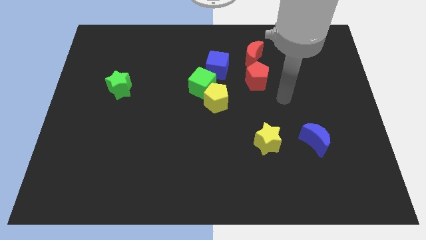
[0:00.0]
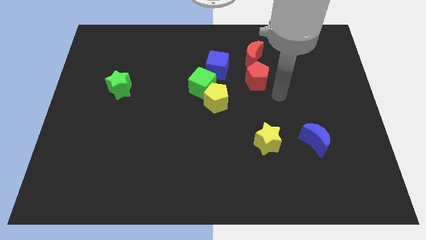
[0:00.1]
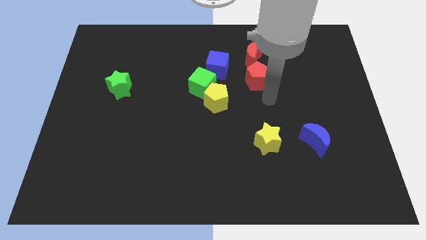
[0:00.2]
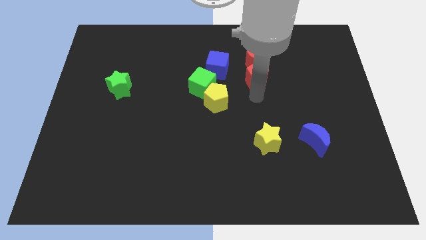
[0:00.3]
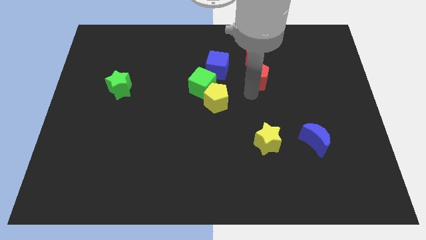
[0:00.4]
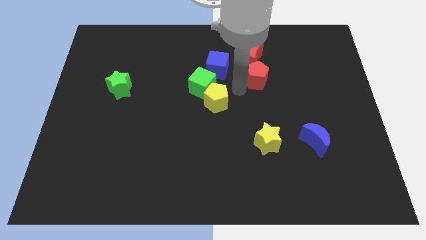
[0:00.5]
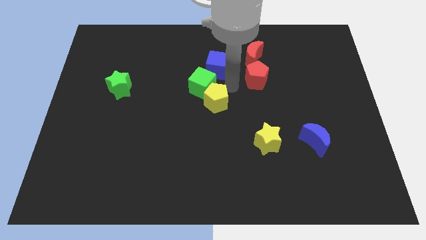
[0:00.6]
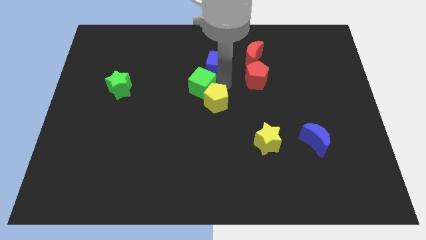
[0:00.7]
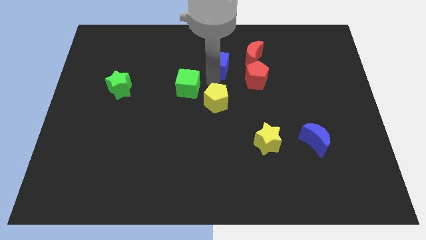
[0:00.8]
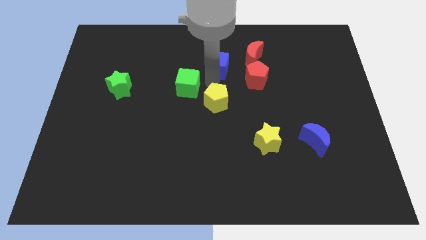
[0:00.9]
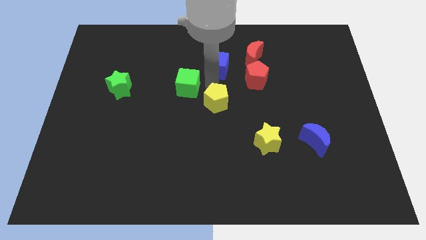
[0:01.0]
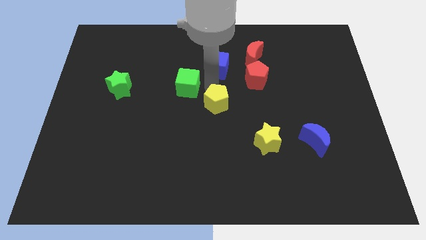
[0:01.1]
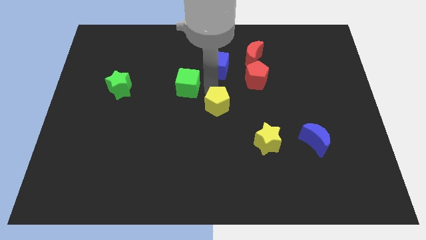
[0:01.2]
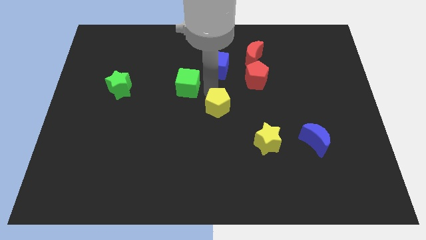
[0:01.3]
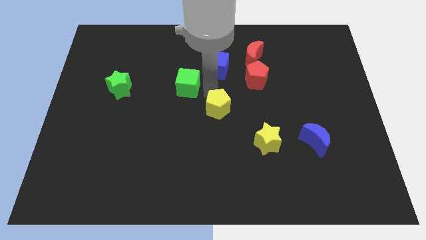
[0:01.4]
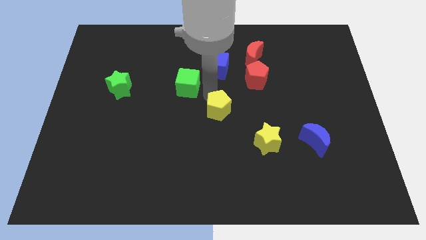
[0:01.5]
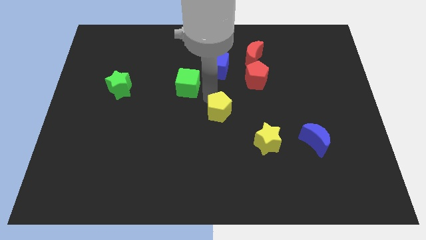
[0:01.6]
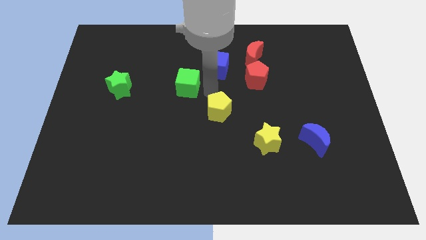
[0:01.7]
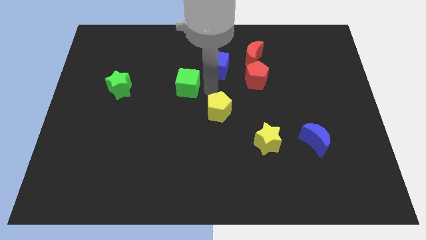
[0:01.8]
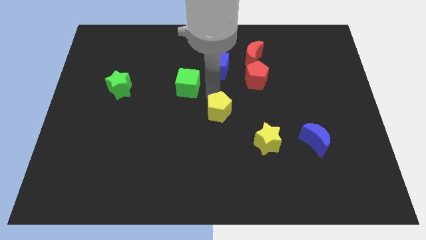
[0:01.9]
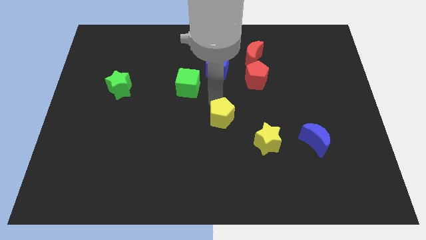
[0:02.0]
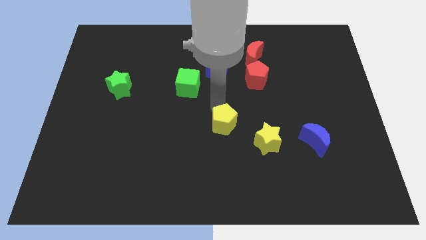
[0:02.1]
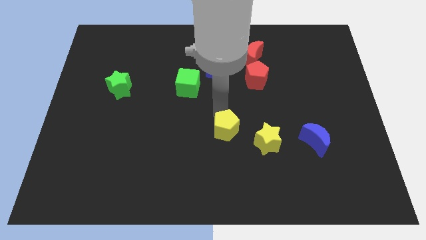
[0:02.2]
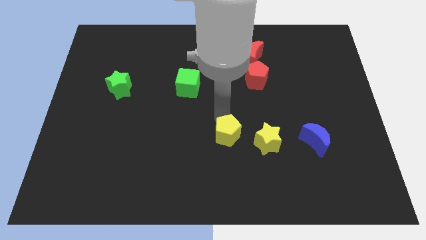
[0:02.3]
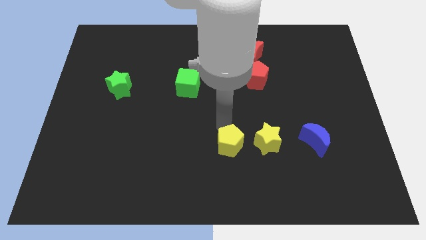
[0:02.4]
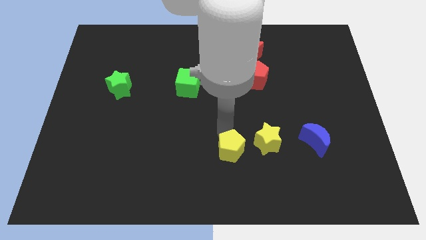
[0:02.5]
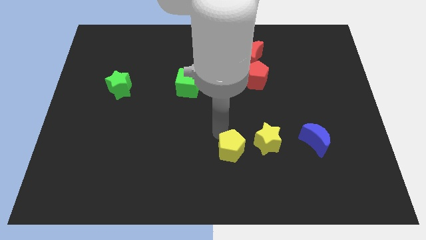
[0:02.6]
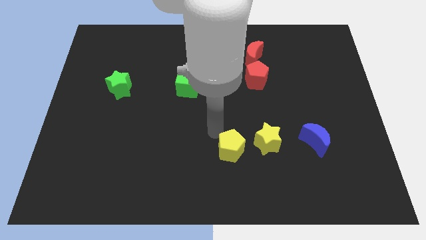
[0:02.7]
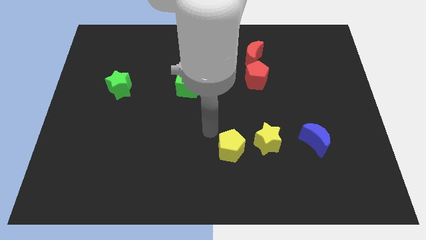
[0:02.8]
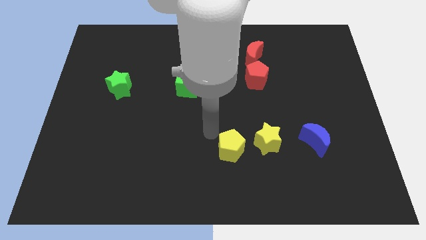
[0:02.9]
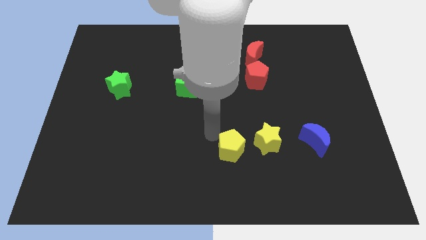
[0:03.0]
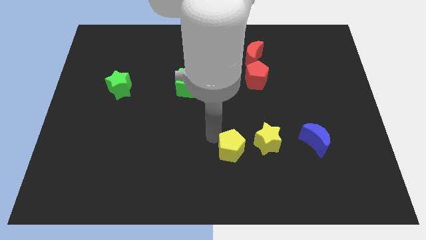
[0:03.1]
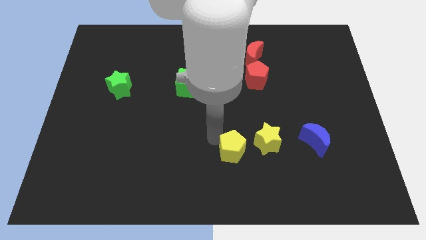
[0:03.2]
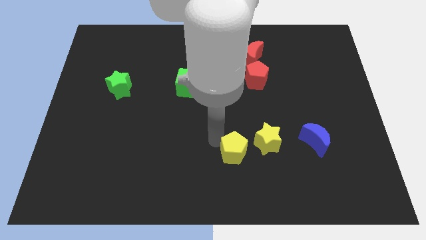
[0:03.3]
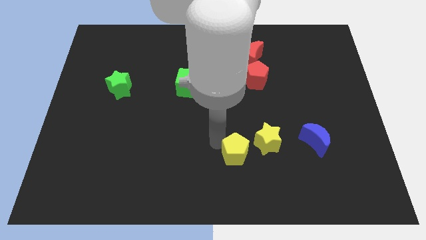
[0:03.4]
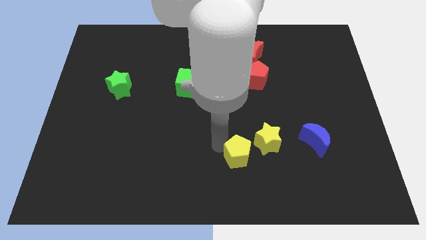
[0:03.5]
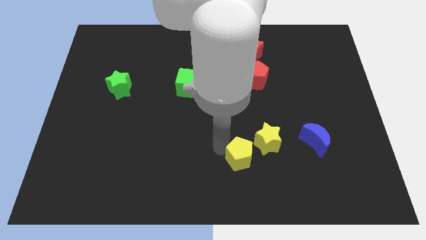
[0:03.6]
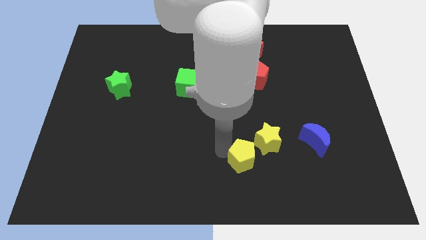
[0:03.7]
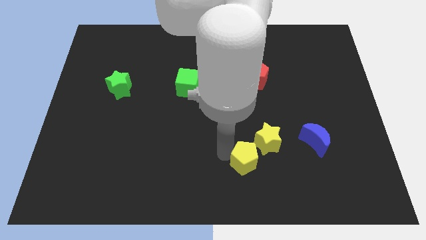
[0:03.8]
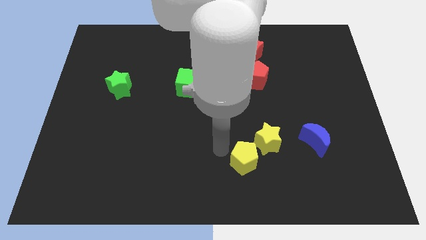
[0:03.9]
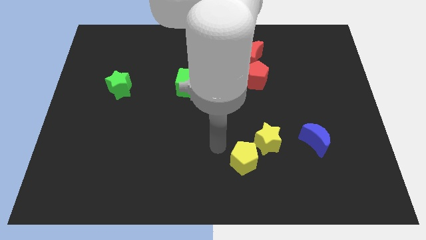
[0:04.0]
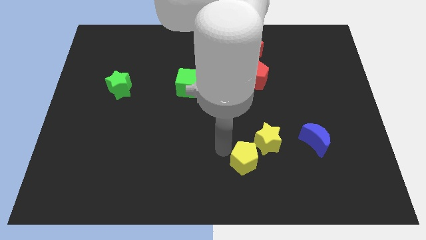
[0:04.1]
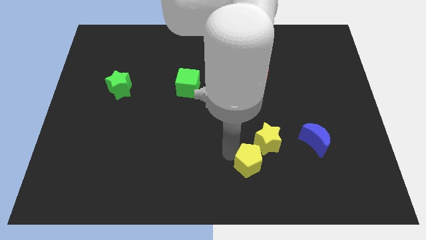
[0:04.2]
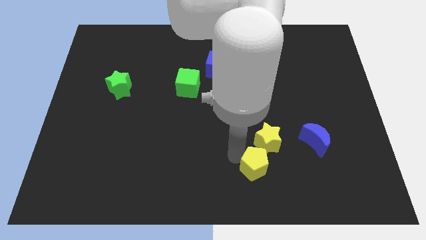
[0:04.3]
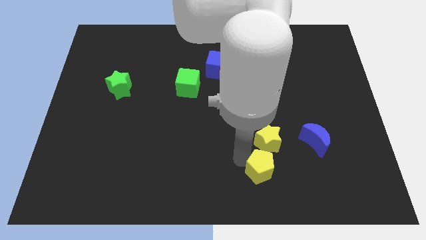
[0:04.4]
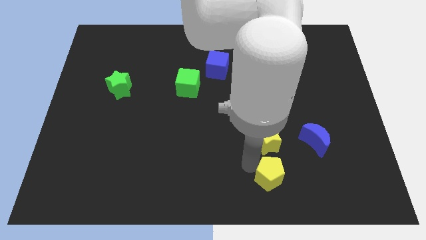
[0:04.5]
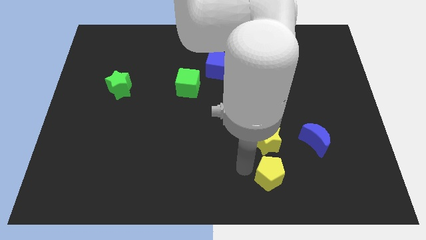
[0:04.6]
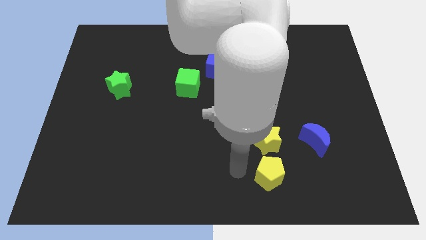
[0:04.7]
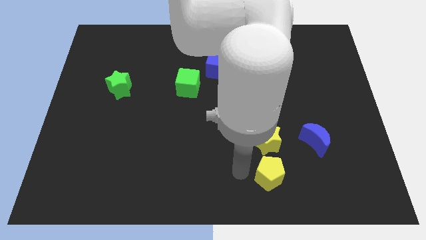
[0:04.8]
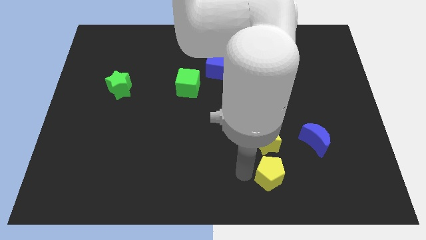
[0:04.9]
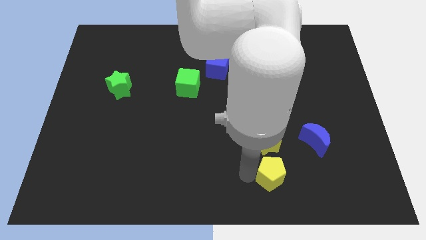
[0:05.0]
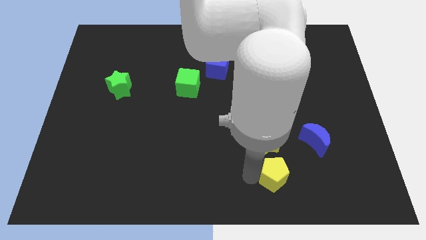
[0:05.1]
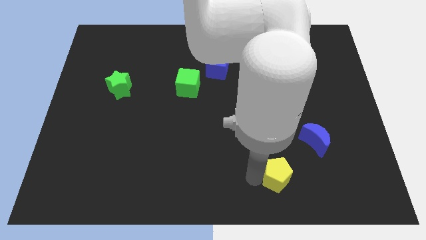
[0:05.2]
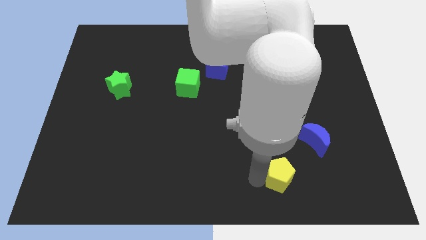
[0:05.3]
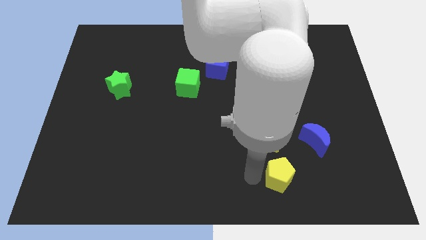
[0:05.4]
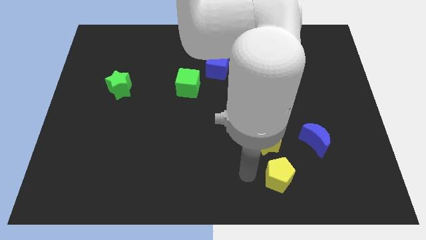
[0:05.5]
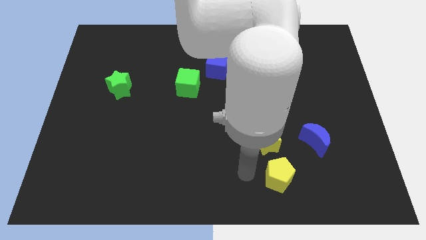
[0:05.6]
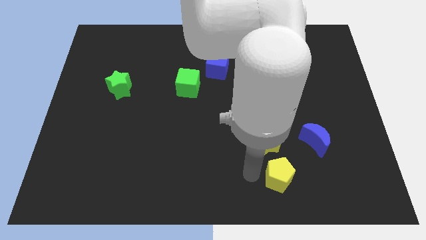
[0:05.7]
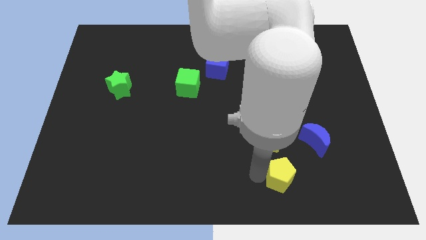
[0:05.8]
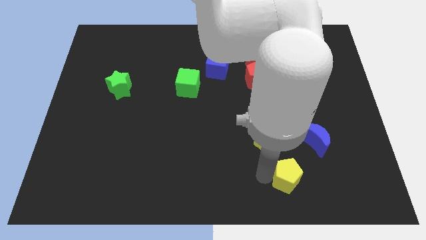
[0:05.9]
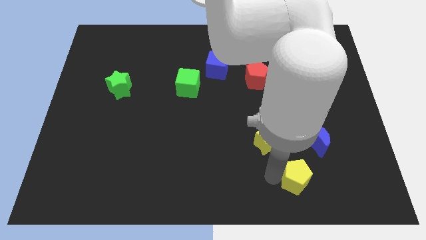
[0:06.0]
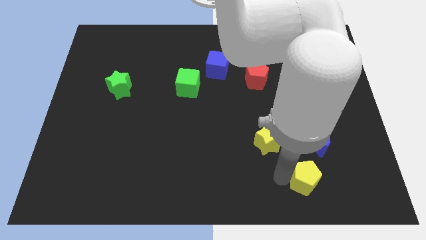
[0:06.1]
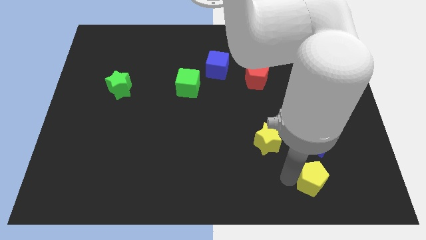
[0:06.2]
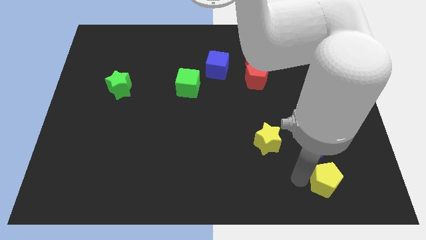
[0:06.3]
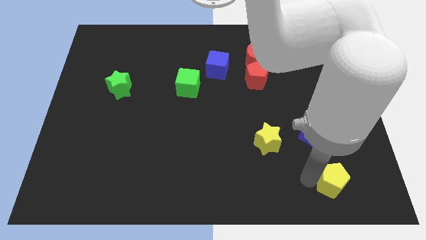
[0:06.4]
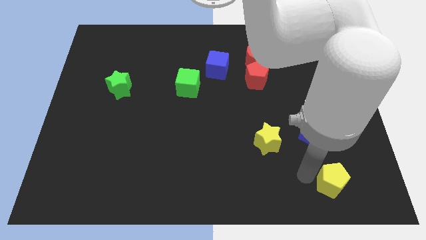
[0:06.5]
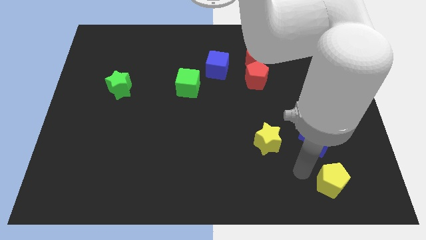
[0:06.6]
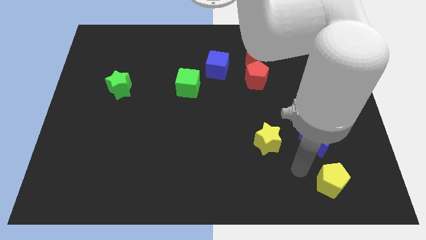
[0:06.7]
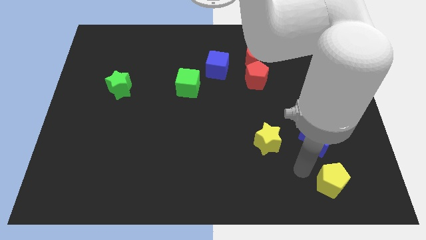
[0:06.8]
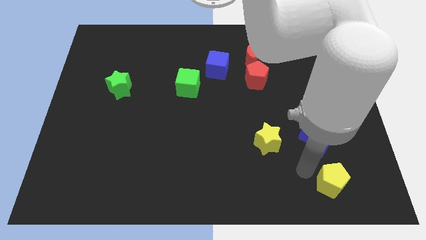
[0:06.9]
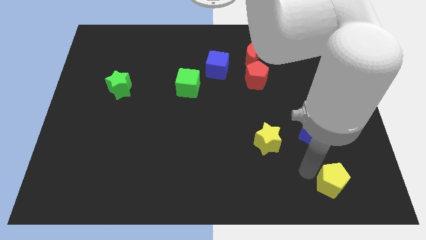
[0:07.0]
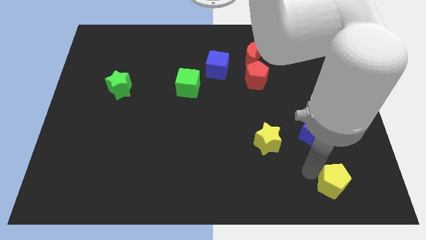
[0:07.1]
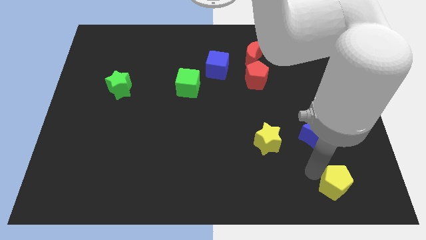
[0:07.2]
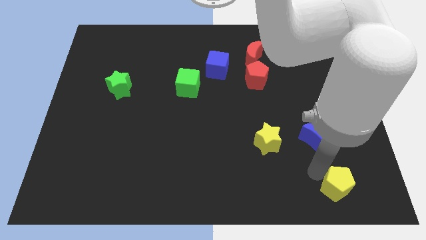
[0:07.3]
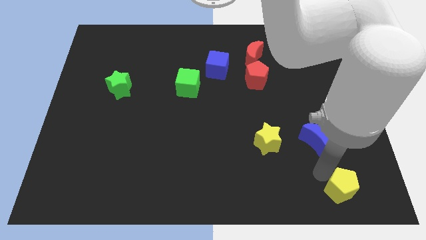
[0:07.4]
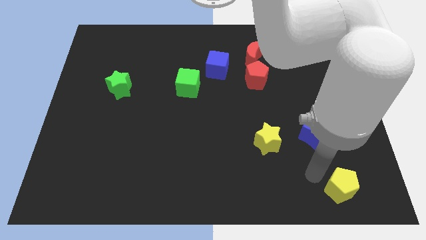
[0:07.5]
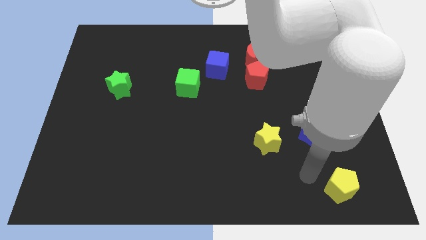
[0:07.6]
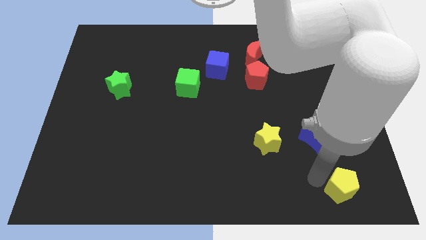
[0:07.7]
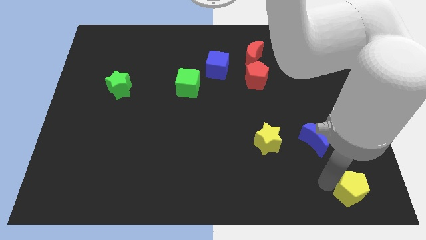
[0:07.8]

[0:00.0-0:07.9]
slide the yellow pentagon to the bottom right corner
